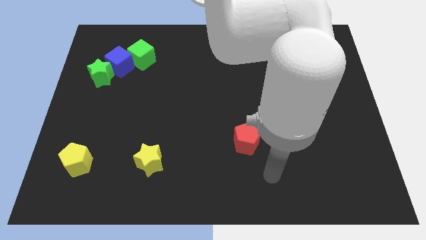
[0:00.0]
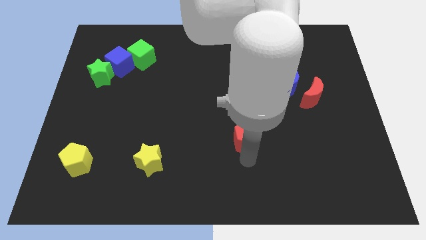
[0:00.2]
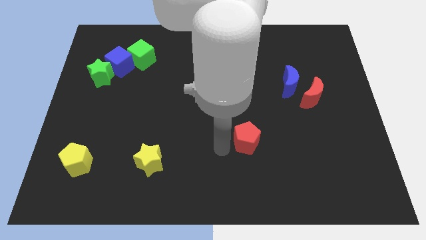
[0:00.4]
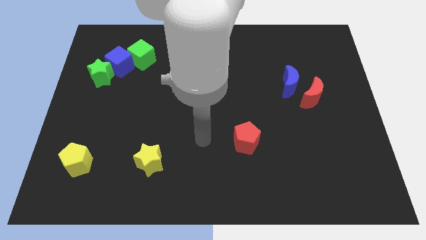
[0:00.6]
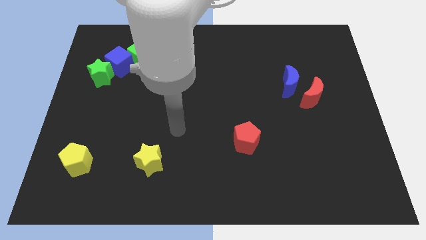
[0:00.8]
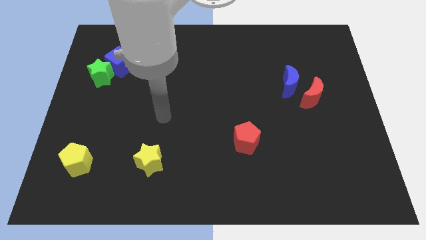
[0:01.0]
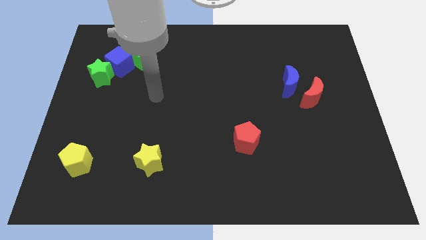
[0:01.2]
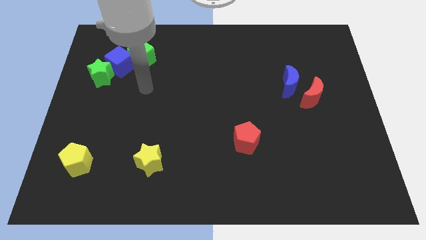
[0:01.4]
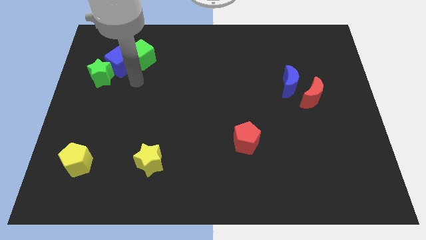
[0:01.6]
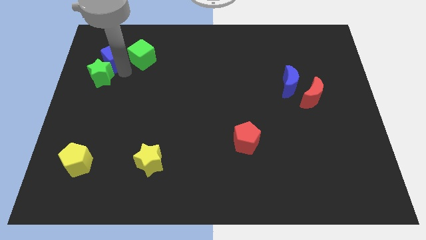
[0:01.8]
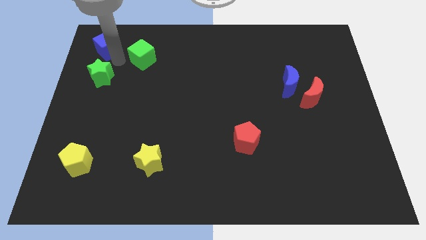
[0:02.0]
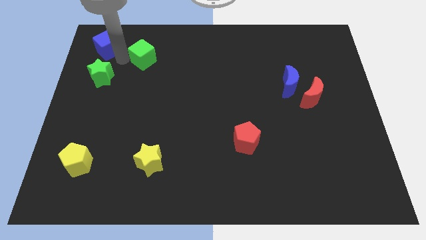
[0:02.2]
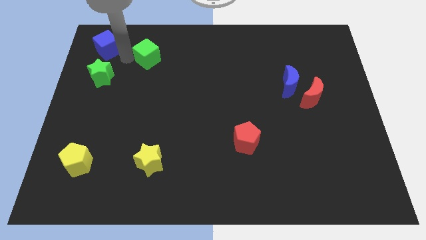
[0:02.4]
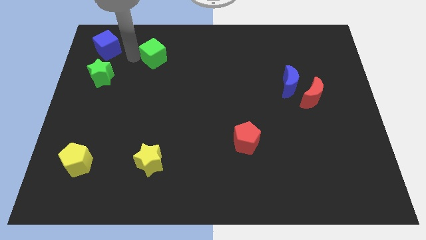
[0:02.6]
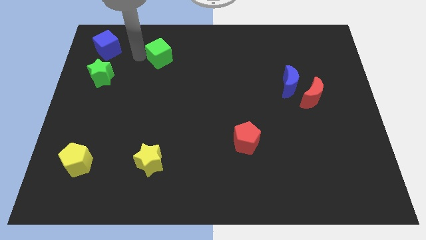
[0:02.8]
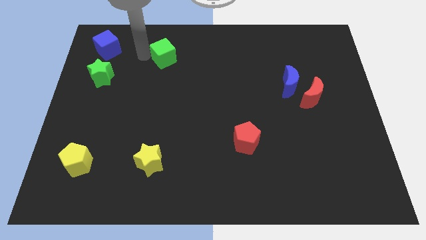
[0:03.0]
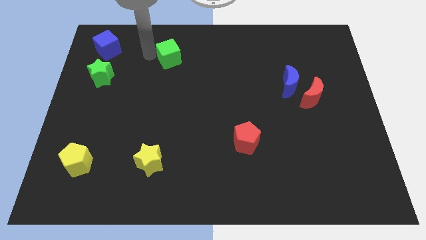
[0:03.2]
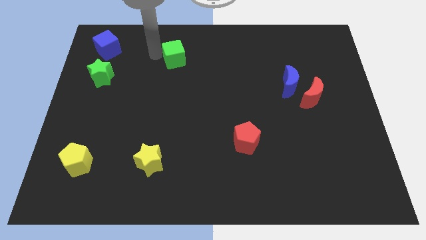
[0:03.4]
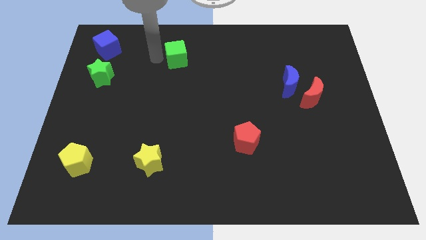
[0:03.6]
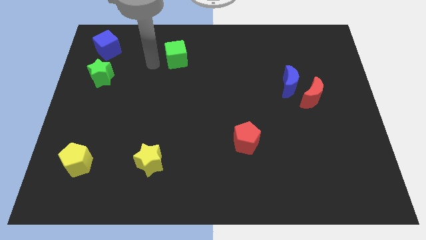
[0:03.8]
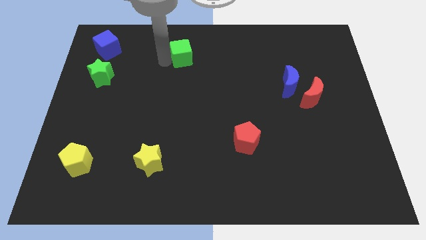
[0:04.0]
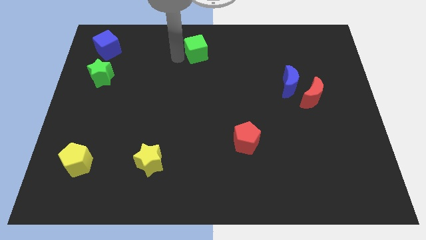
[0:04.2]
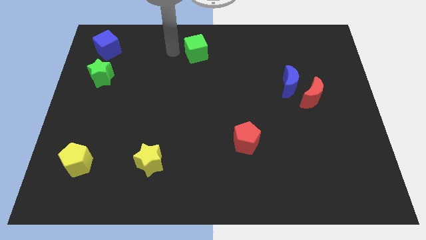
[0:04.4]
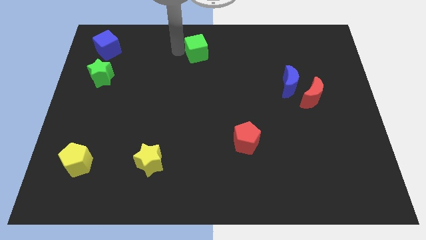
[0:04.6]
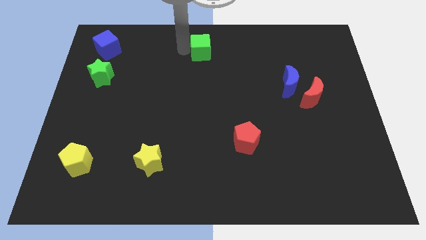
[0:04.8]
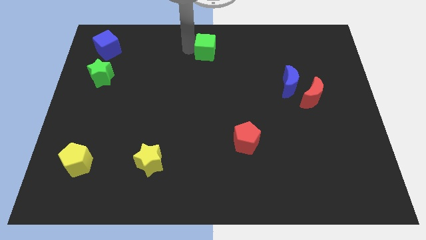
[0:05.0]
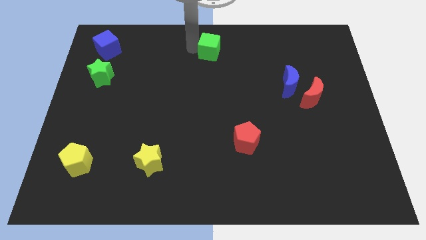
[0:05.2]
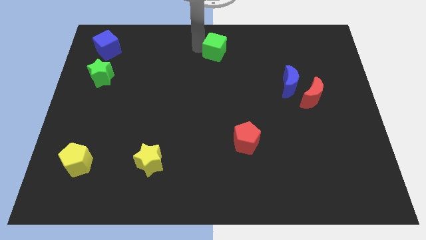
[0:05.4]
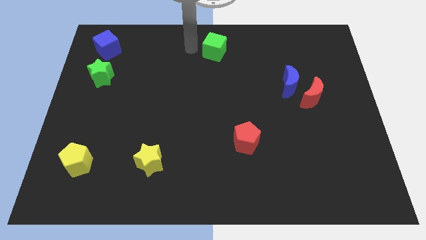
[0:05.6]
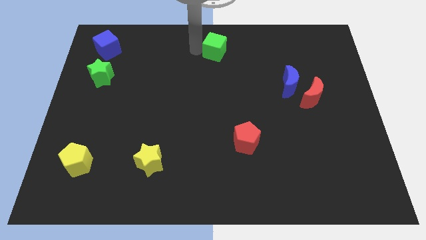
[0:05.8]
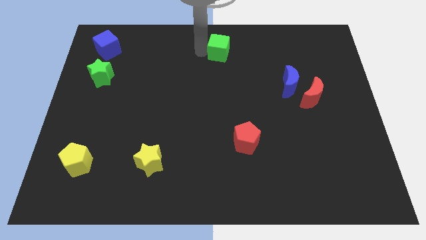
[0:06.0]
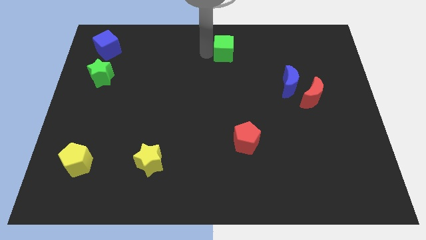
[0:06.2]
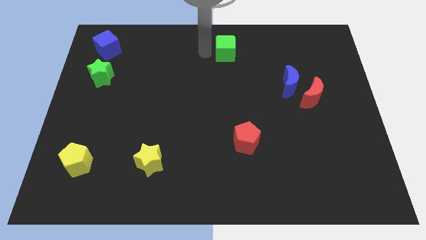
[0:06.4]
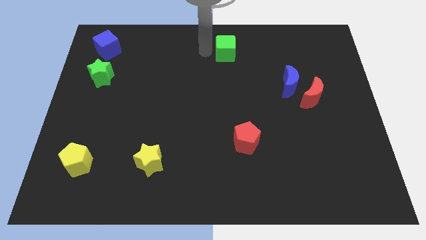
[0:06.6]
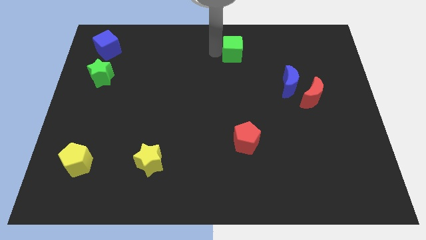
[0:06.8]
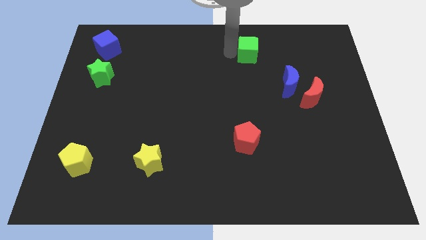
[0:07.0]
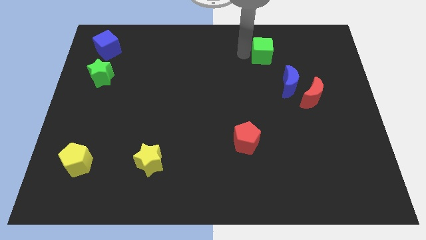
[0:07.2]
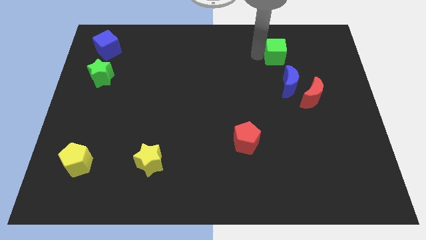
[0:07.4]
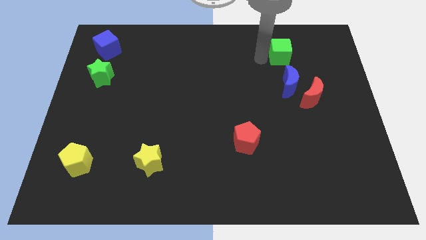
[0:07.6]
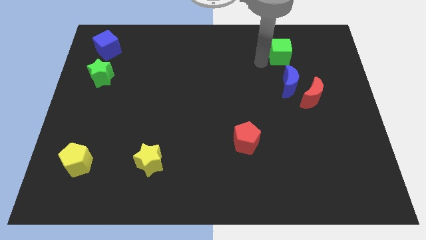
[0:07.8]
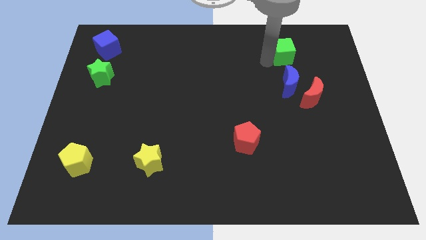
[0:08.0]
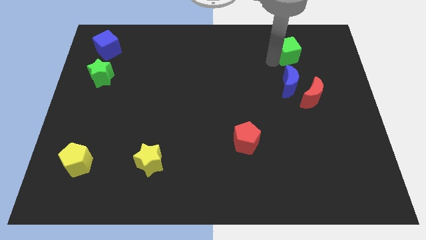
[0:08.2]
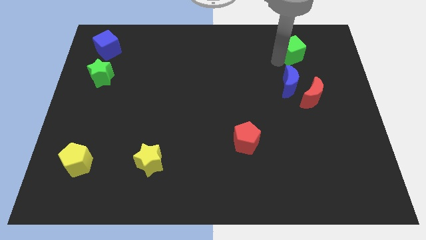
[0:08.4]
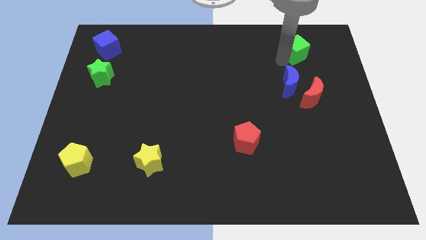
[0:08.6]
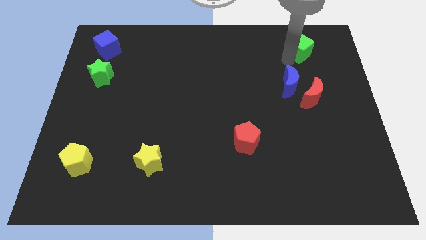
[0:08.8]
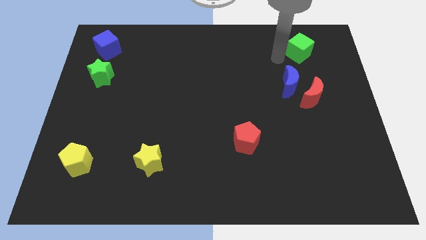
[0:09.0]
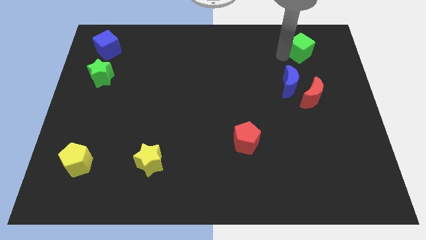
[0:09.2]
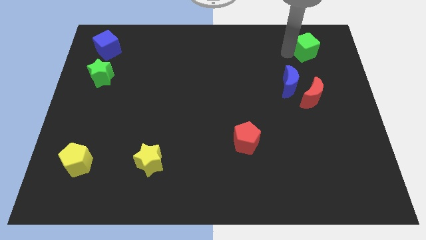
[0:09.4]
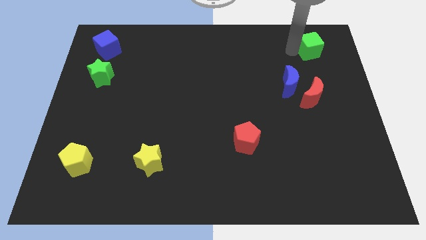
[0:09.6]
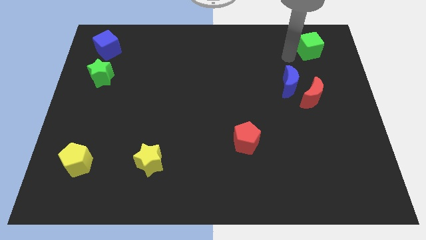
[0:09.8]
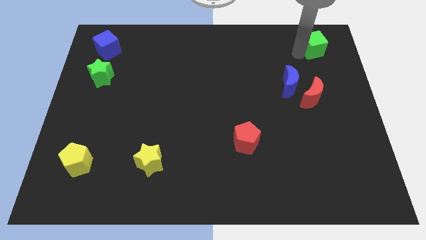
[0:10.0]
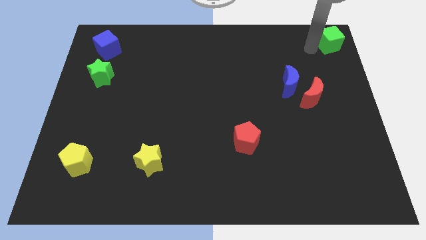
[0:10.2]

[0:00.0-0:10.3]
move the green cube to the top right of the board

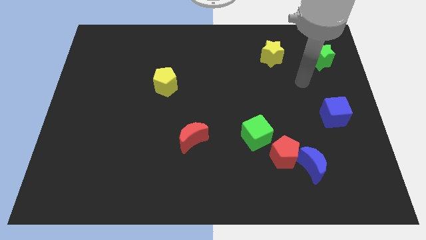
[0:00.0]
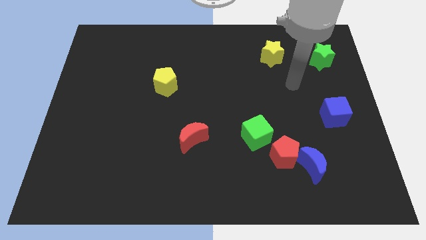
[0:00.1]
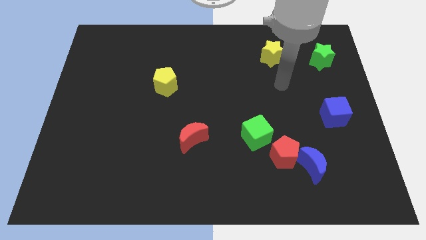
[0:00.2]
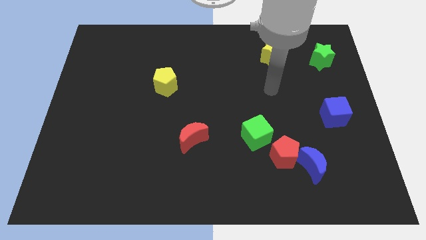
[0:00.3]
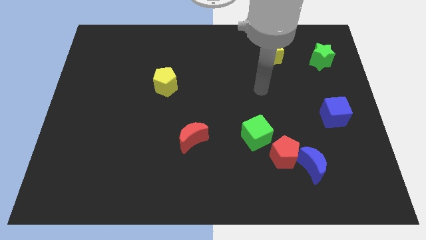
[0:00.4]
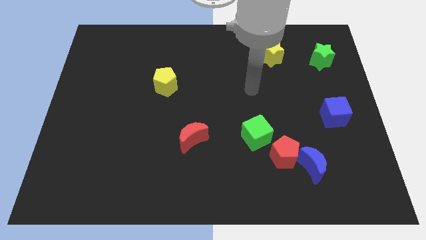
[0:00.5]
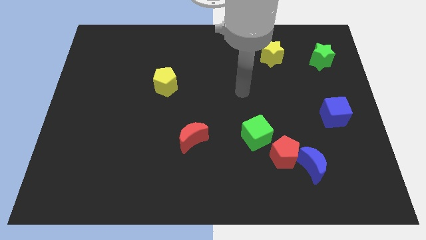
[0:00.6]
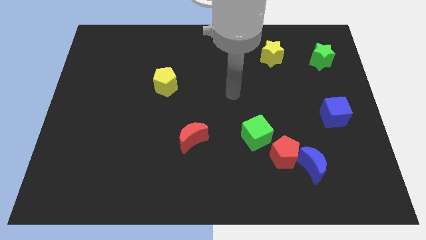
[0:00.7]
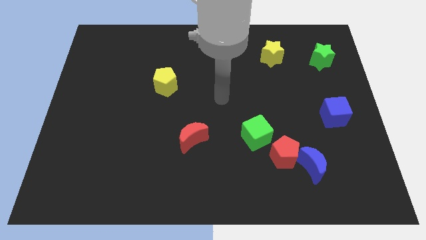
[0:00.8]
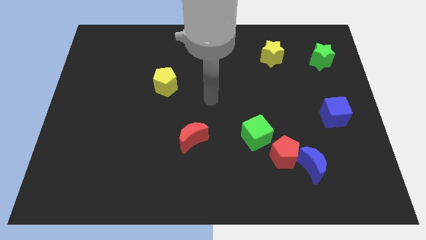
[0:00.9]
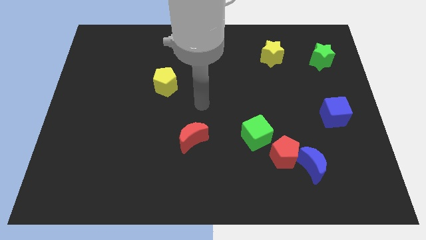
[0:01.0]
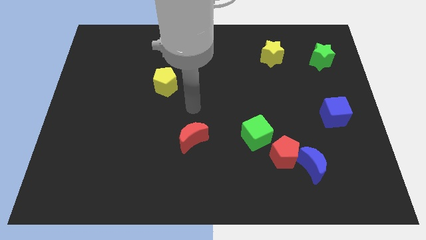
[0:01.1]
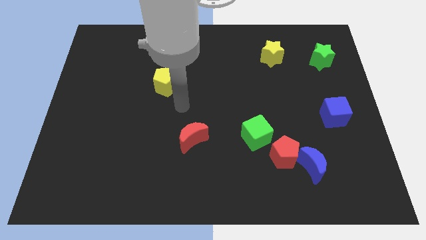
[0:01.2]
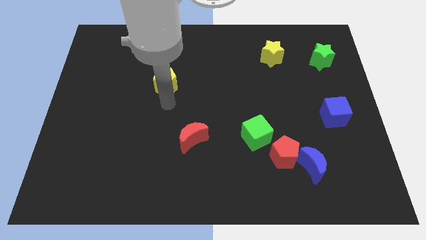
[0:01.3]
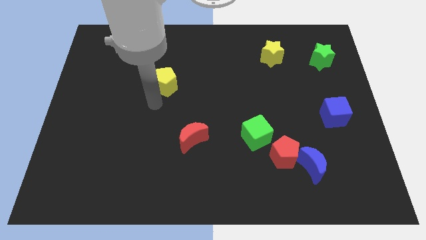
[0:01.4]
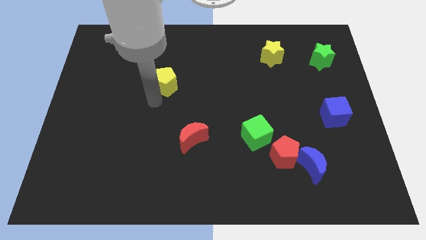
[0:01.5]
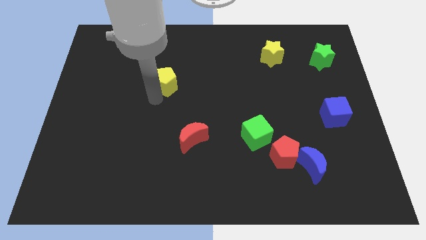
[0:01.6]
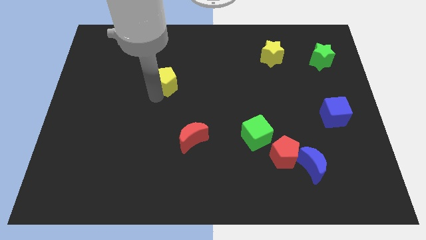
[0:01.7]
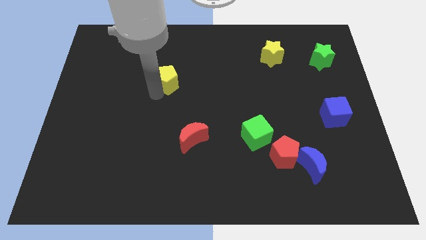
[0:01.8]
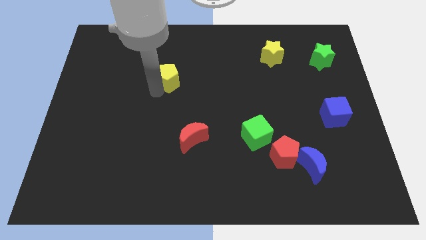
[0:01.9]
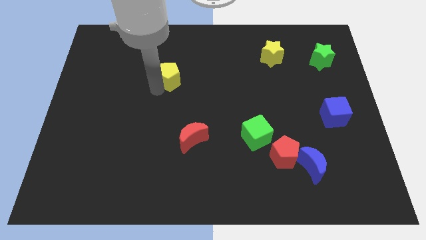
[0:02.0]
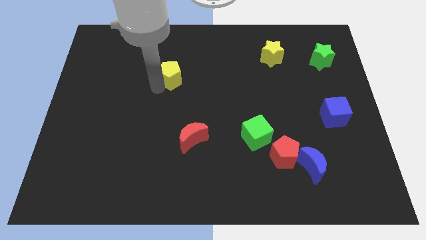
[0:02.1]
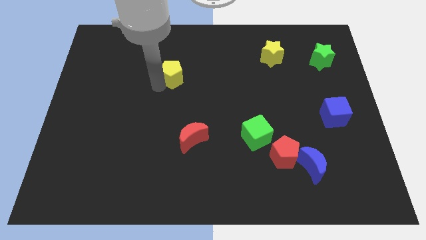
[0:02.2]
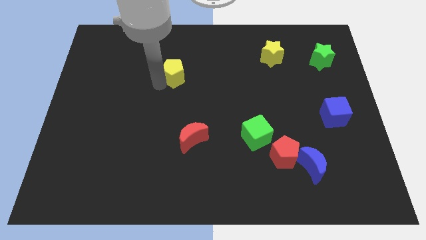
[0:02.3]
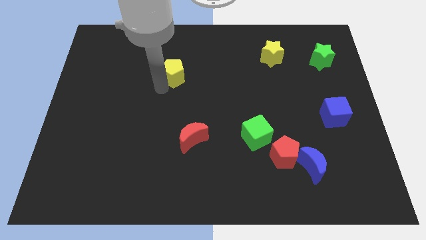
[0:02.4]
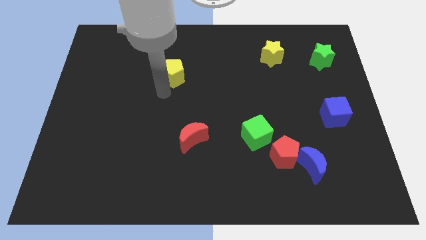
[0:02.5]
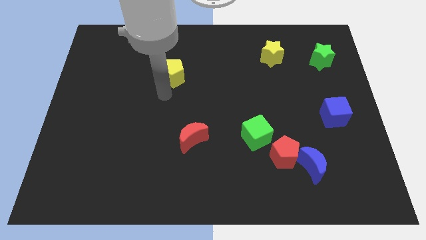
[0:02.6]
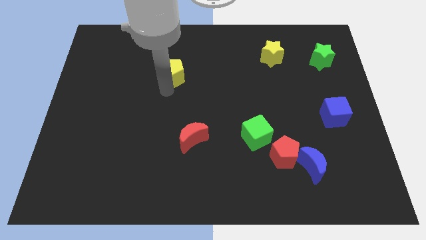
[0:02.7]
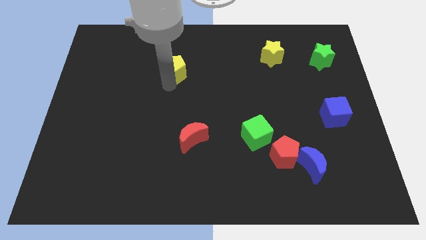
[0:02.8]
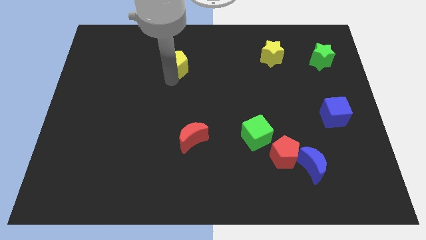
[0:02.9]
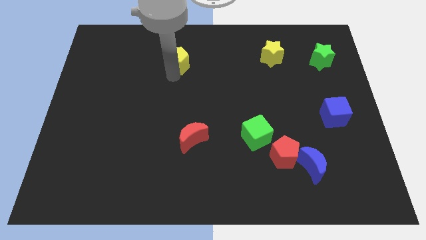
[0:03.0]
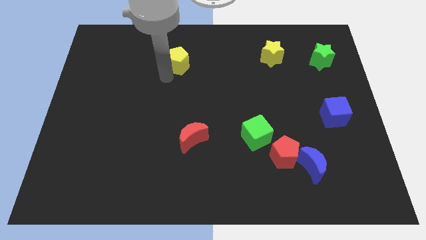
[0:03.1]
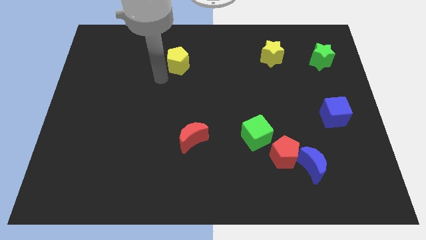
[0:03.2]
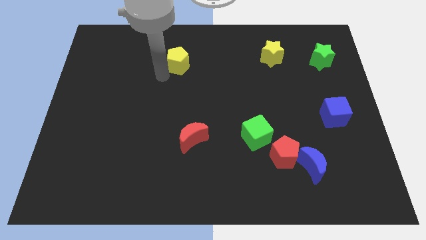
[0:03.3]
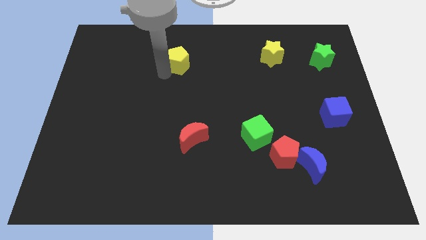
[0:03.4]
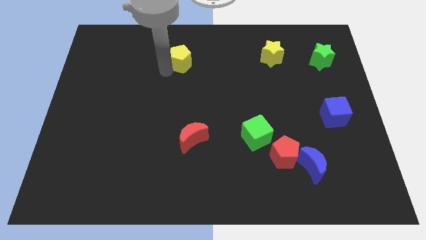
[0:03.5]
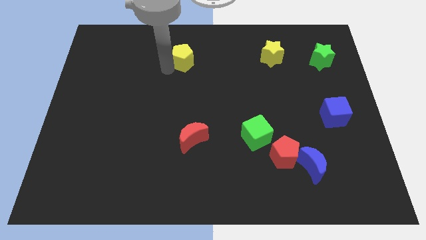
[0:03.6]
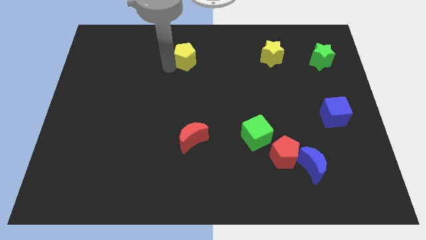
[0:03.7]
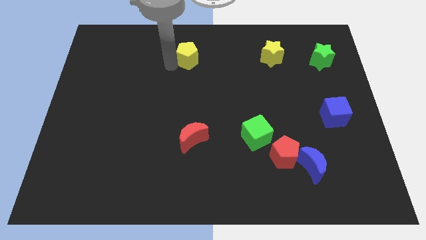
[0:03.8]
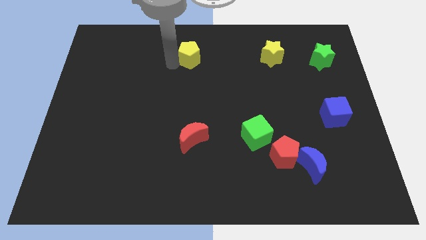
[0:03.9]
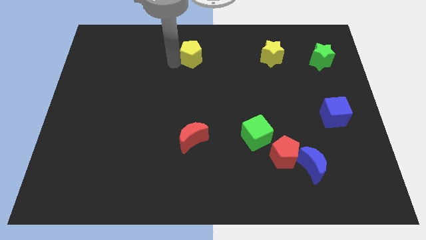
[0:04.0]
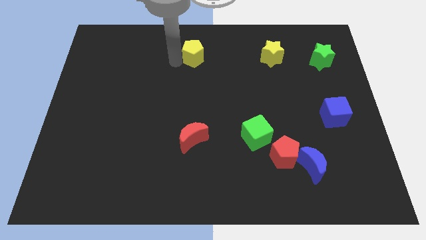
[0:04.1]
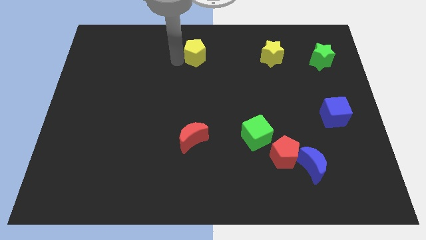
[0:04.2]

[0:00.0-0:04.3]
push the yellow pentagon to the top side
